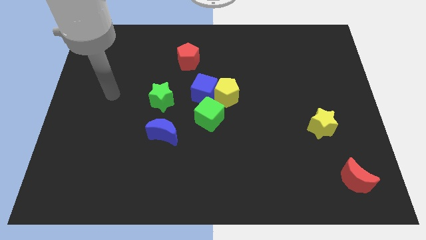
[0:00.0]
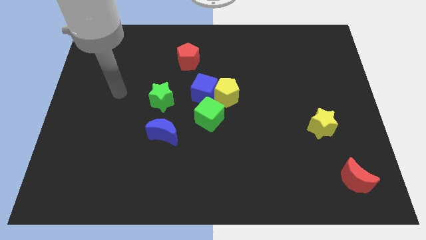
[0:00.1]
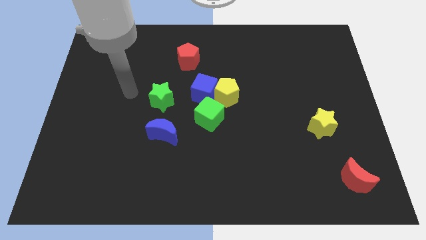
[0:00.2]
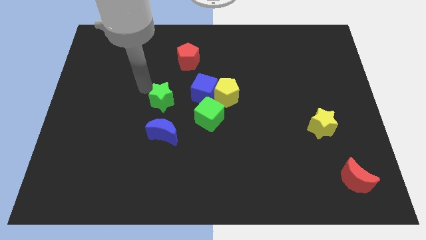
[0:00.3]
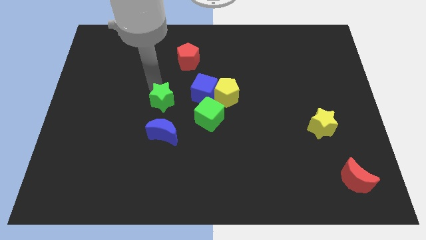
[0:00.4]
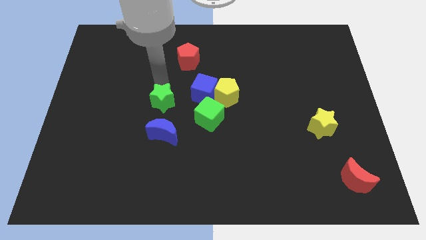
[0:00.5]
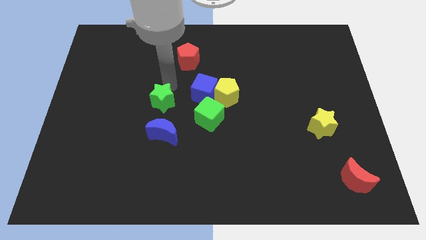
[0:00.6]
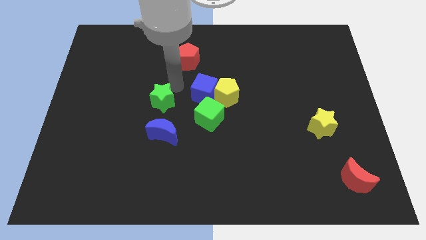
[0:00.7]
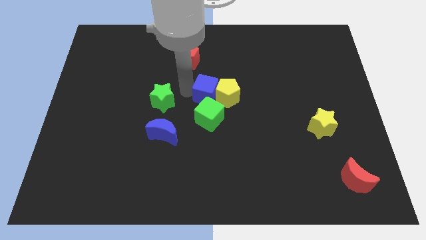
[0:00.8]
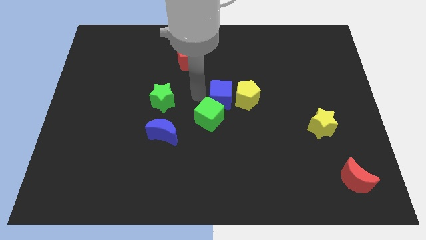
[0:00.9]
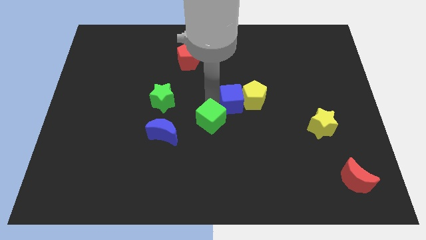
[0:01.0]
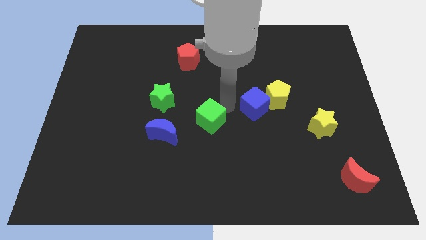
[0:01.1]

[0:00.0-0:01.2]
separate the yellow pentagon from the blue cube and green cube

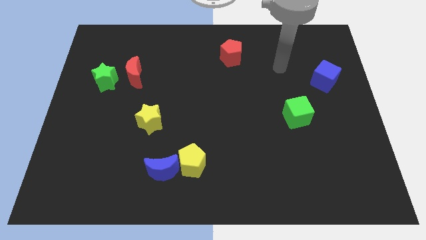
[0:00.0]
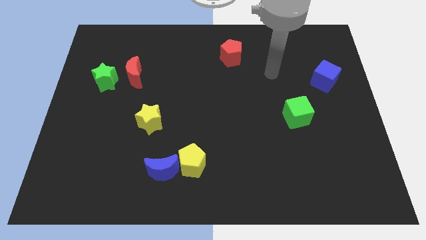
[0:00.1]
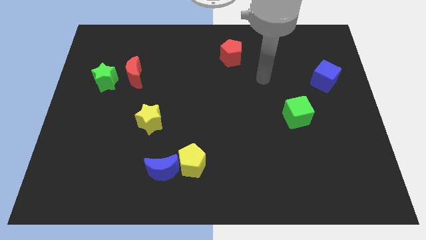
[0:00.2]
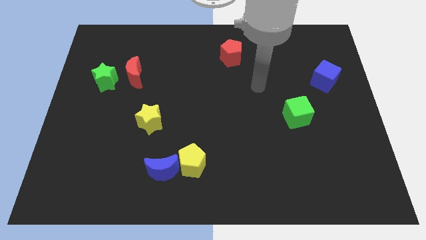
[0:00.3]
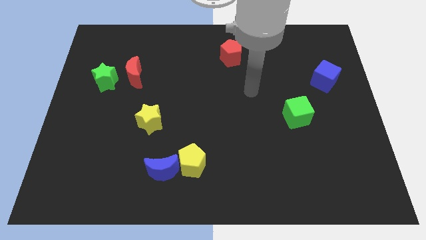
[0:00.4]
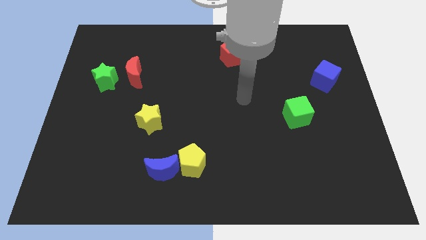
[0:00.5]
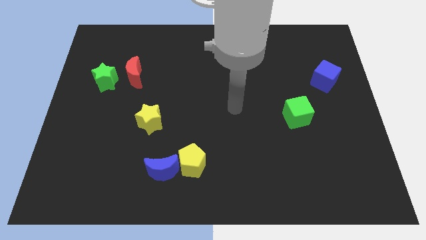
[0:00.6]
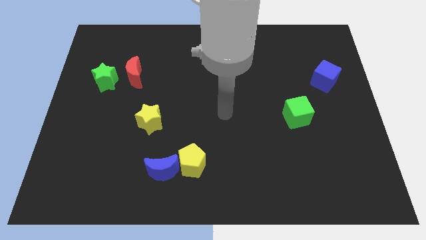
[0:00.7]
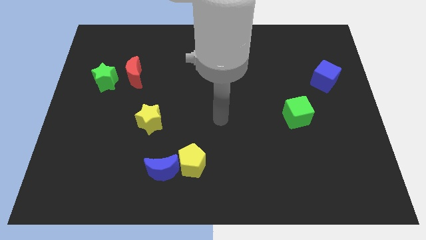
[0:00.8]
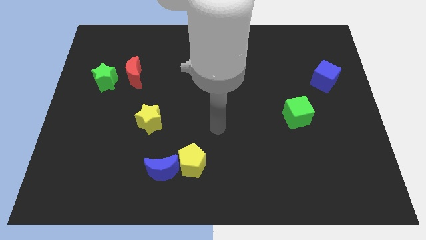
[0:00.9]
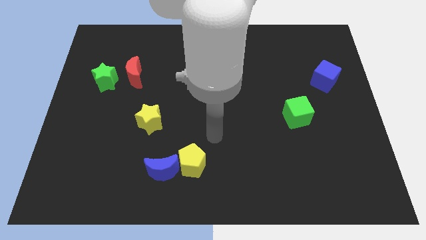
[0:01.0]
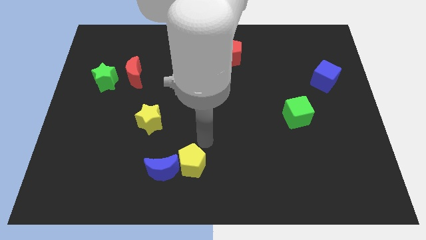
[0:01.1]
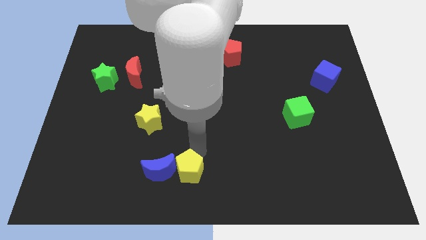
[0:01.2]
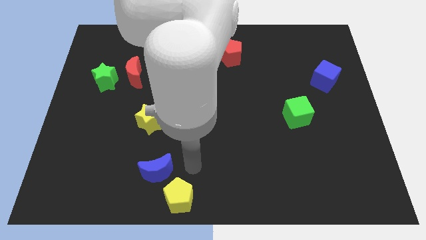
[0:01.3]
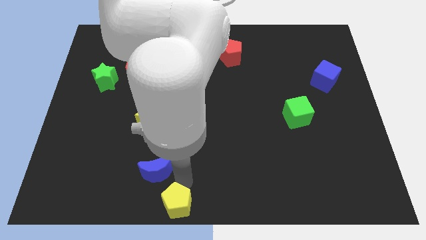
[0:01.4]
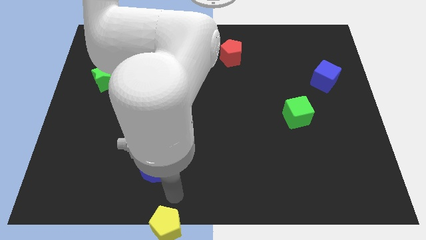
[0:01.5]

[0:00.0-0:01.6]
move the blue moon away from the yellow pentagon

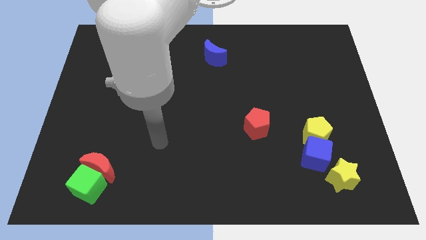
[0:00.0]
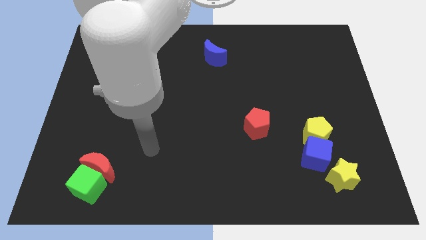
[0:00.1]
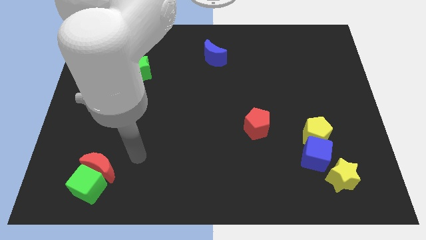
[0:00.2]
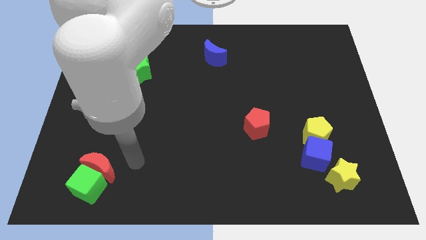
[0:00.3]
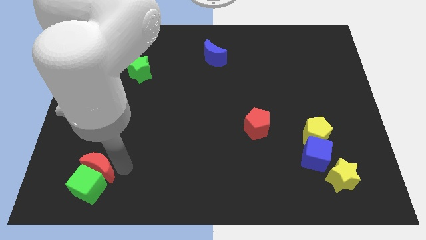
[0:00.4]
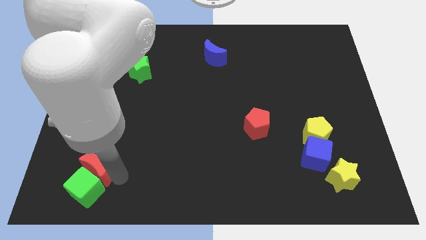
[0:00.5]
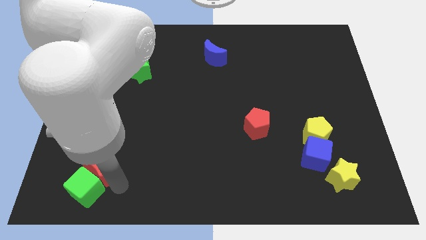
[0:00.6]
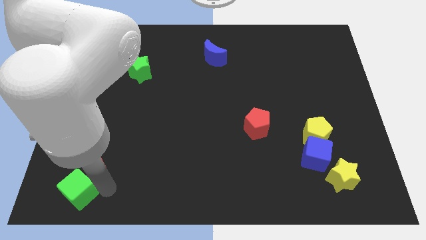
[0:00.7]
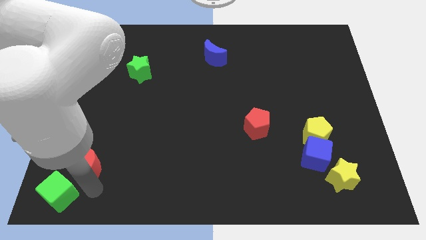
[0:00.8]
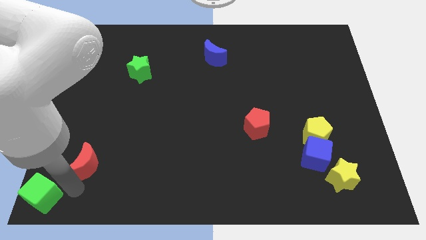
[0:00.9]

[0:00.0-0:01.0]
separate the red moon from the green cube

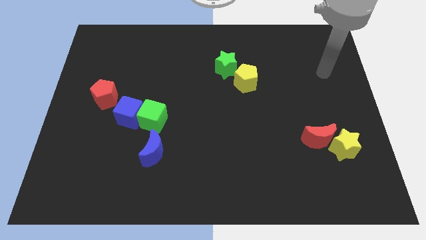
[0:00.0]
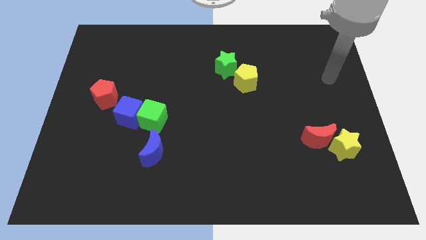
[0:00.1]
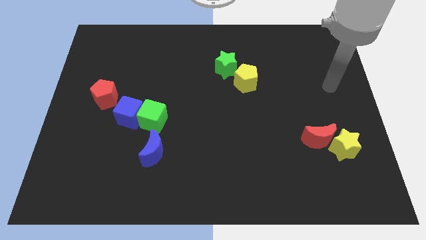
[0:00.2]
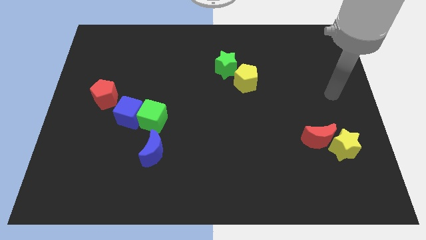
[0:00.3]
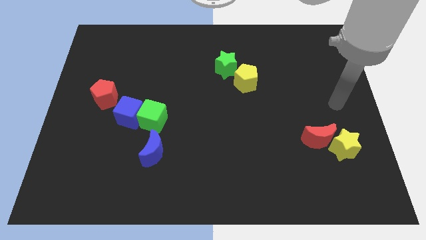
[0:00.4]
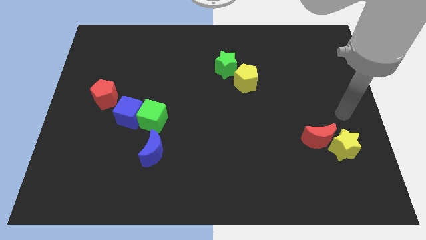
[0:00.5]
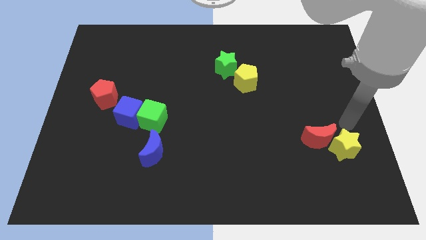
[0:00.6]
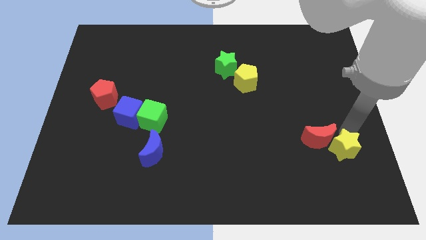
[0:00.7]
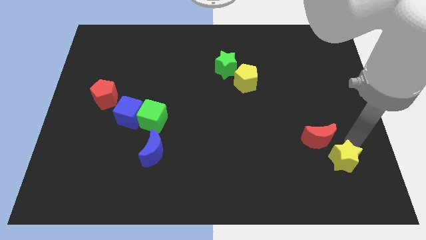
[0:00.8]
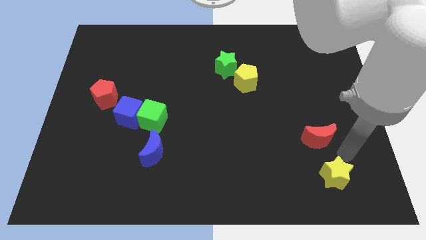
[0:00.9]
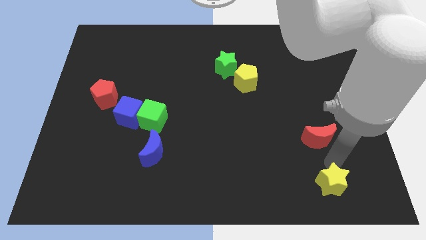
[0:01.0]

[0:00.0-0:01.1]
separate the red moon from the yellow star

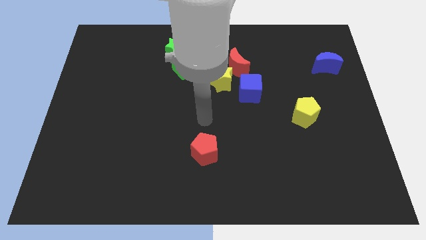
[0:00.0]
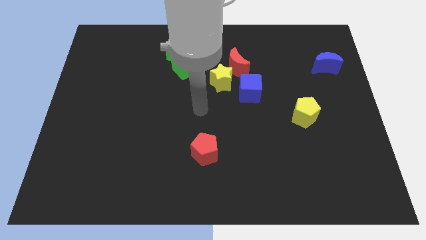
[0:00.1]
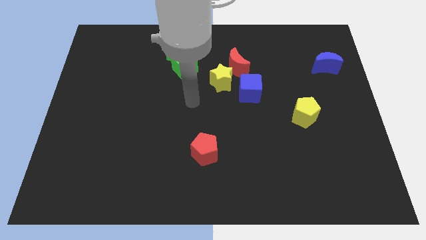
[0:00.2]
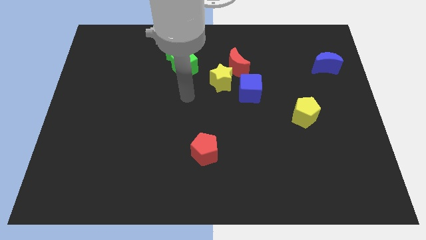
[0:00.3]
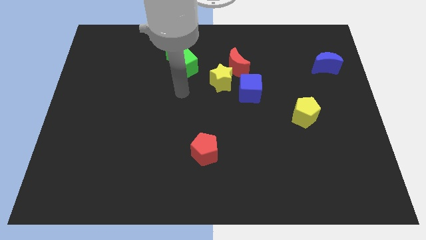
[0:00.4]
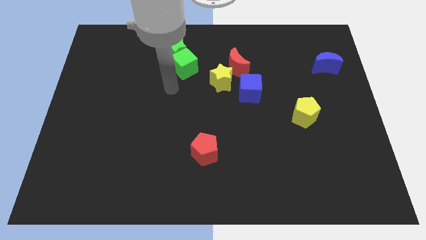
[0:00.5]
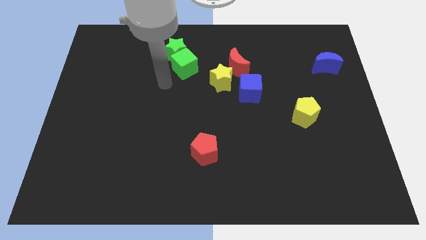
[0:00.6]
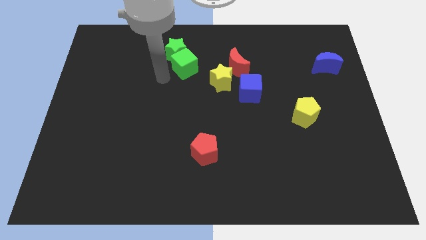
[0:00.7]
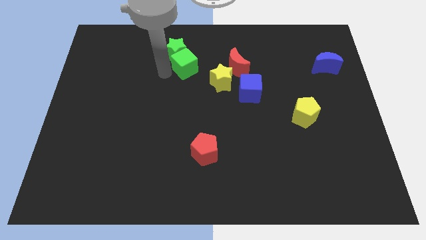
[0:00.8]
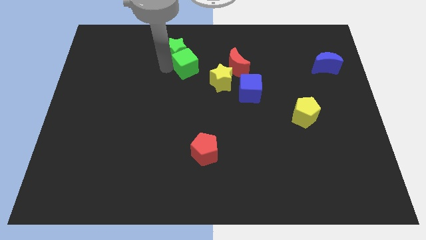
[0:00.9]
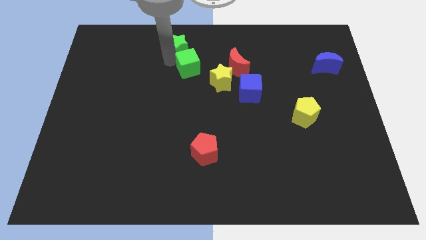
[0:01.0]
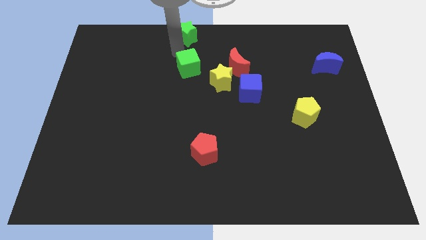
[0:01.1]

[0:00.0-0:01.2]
separate the green cube from the green star

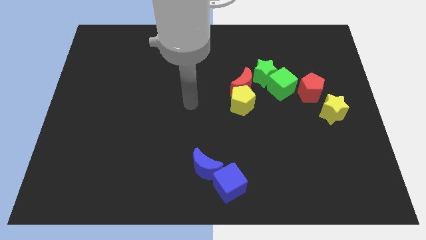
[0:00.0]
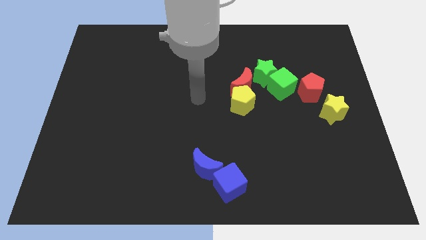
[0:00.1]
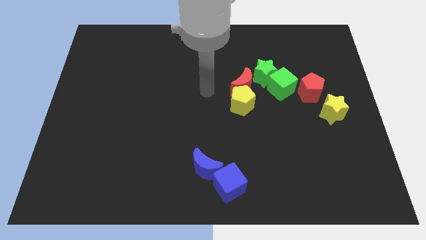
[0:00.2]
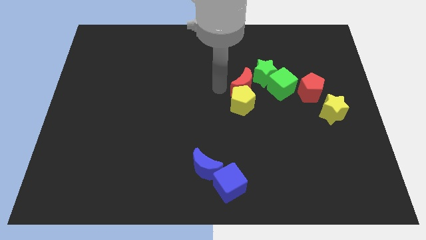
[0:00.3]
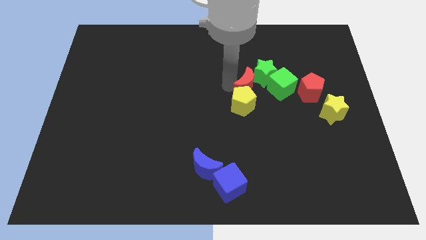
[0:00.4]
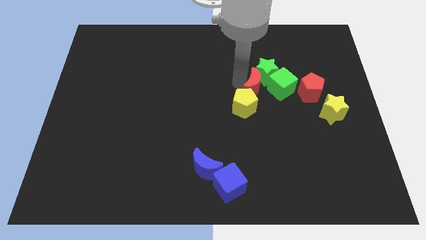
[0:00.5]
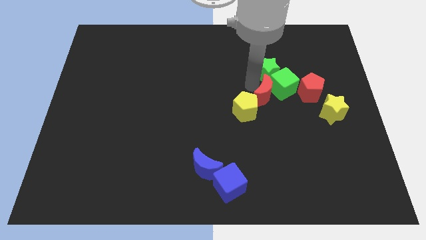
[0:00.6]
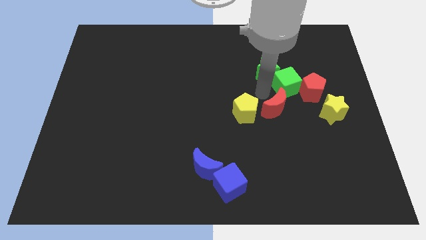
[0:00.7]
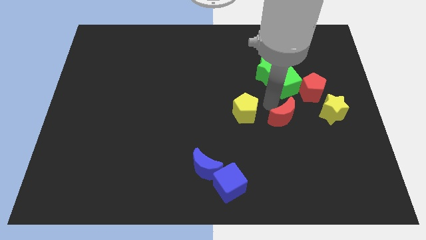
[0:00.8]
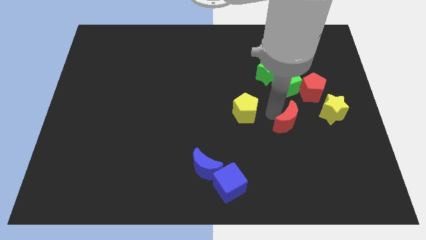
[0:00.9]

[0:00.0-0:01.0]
pull the yellow pentagon apart from the red moon

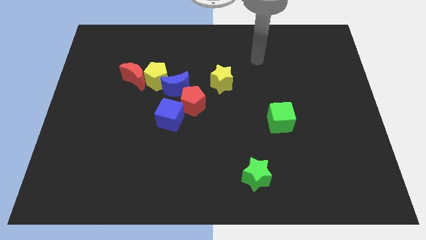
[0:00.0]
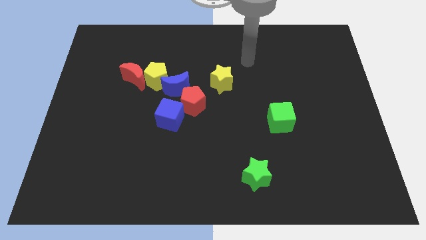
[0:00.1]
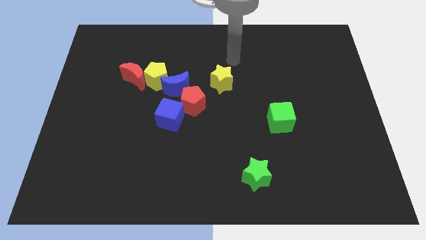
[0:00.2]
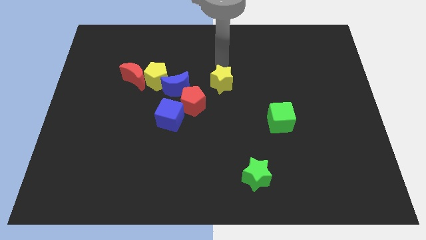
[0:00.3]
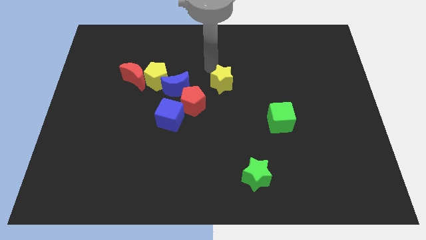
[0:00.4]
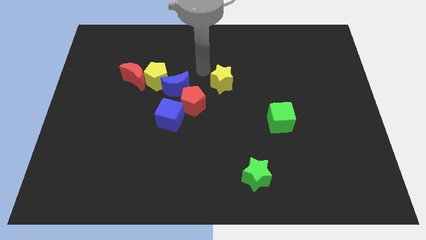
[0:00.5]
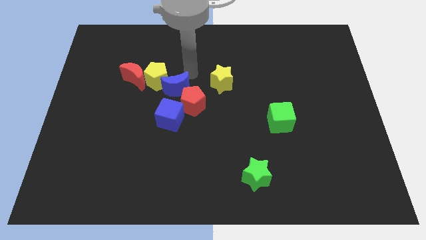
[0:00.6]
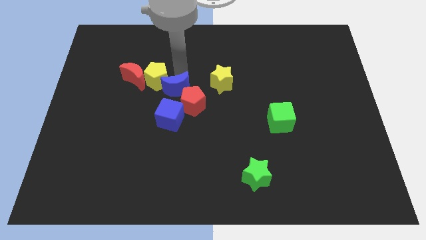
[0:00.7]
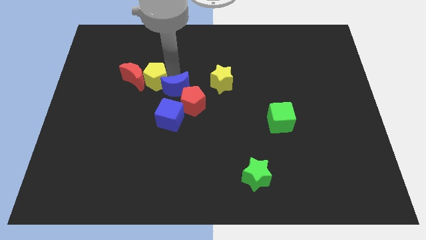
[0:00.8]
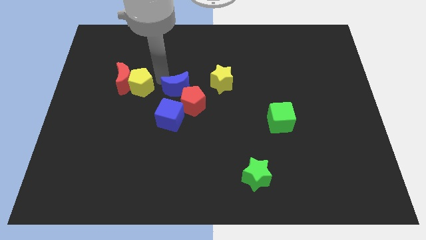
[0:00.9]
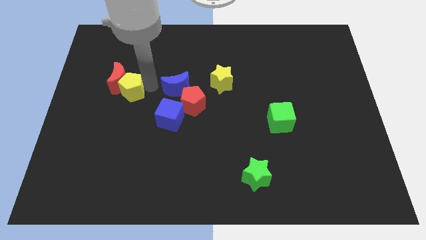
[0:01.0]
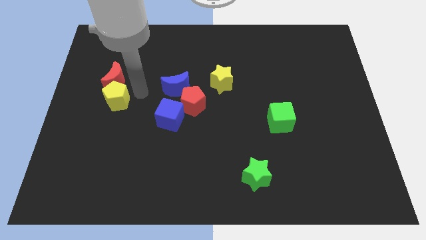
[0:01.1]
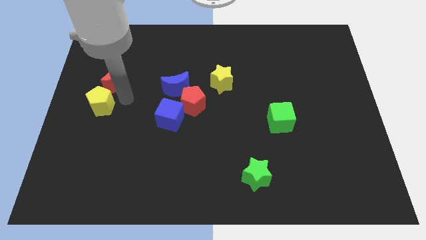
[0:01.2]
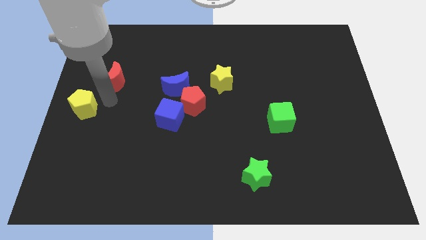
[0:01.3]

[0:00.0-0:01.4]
separate the red moon from the yellow pentagon

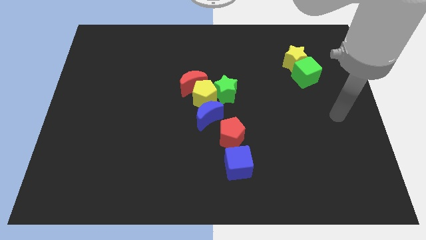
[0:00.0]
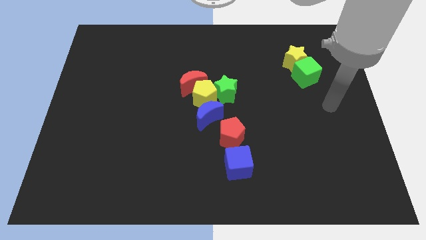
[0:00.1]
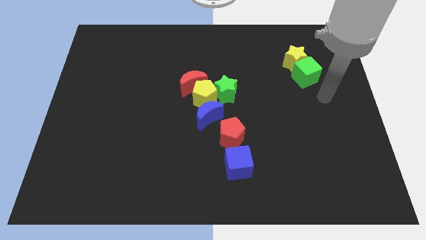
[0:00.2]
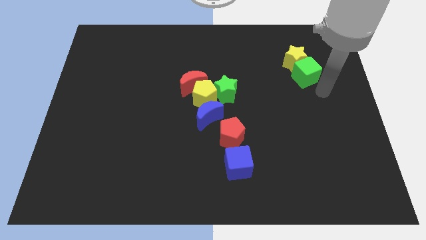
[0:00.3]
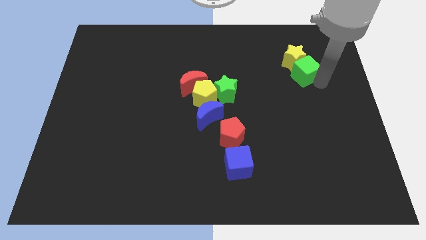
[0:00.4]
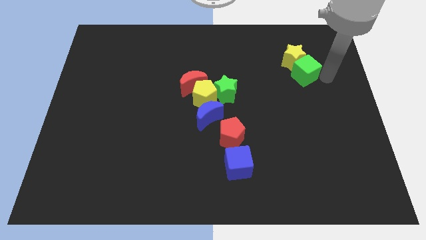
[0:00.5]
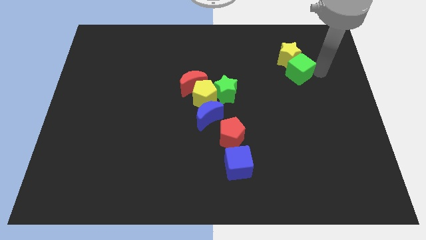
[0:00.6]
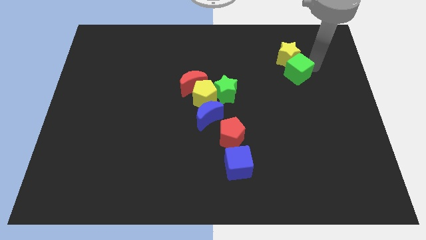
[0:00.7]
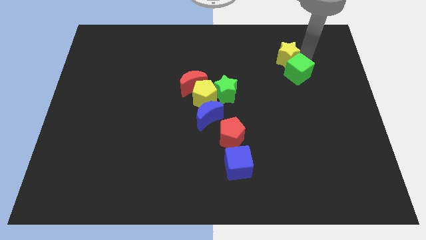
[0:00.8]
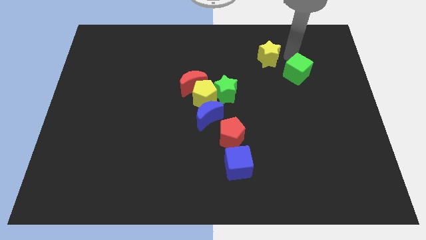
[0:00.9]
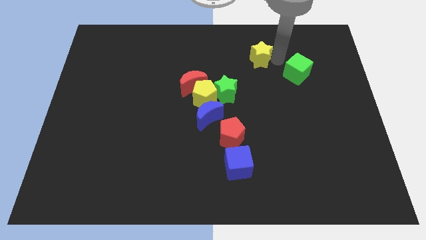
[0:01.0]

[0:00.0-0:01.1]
move the green cube away from the yellow star
